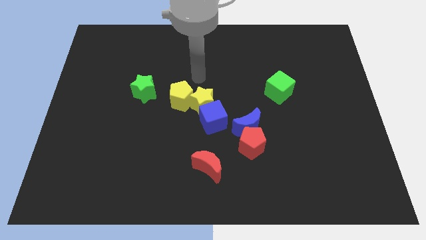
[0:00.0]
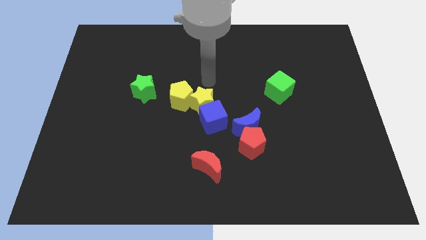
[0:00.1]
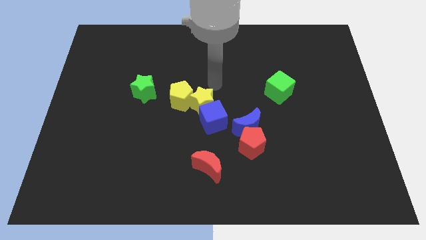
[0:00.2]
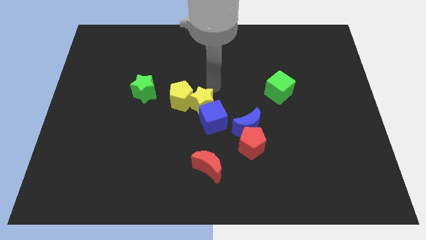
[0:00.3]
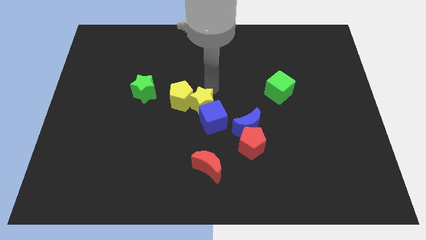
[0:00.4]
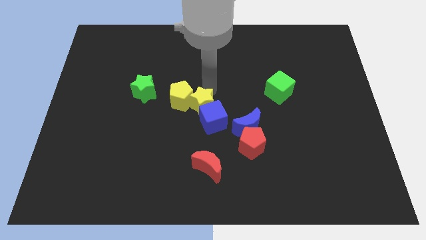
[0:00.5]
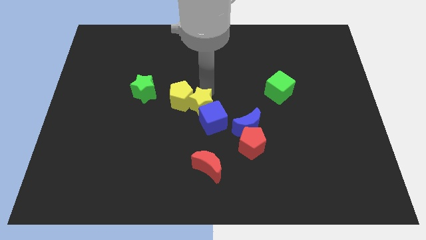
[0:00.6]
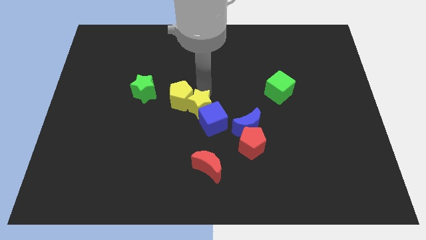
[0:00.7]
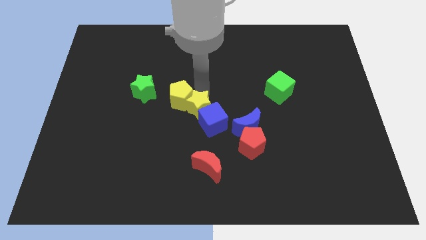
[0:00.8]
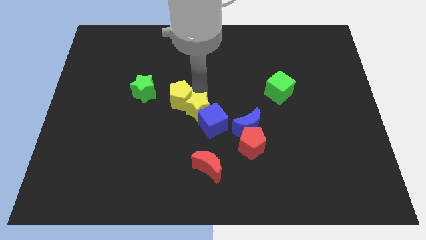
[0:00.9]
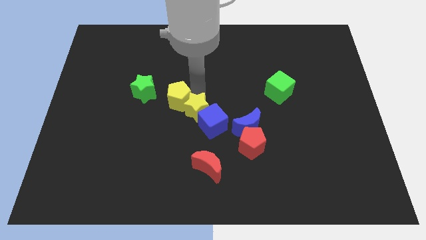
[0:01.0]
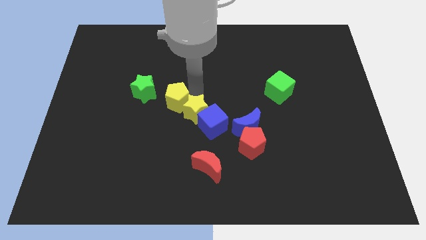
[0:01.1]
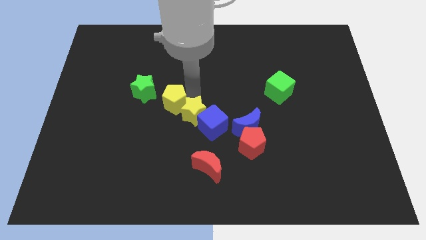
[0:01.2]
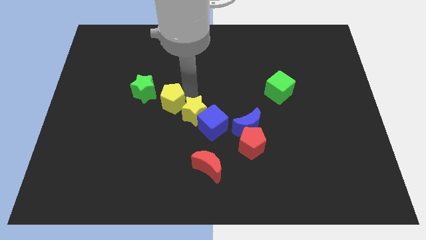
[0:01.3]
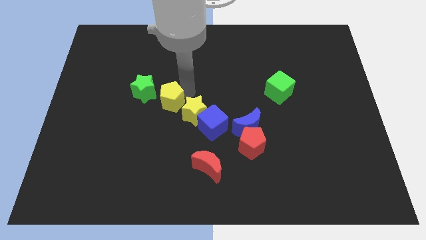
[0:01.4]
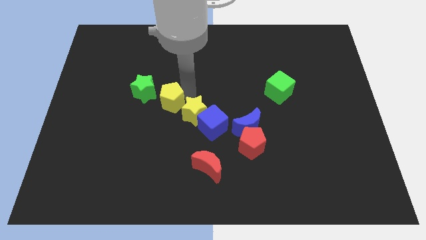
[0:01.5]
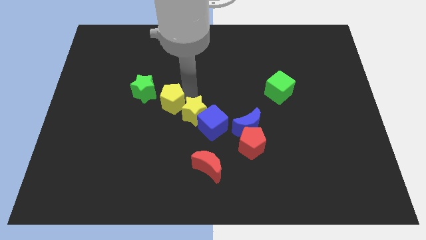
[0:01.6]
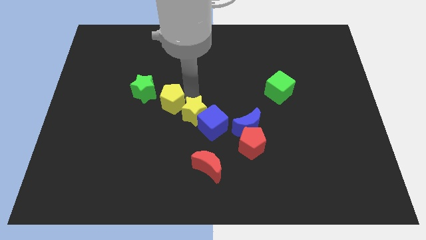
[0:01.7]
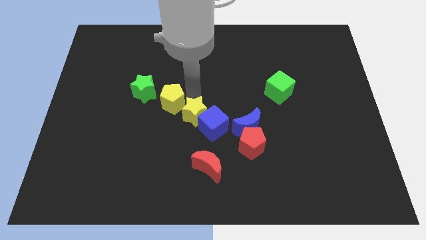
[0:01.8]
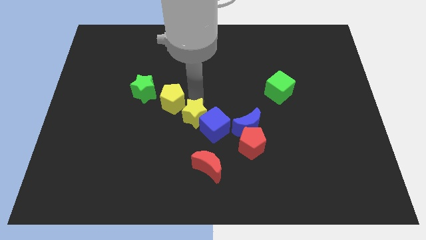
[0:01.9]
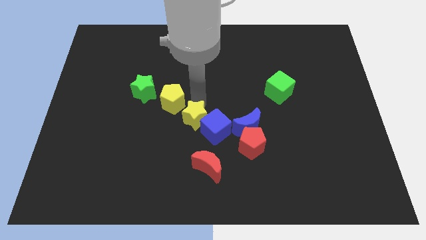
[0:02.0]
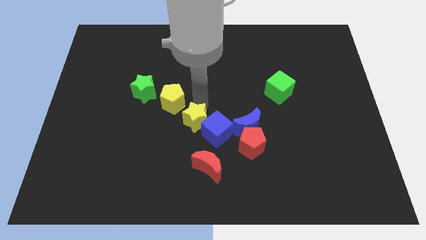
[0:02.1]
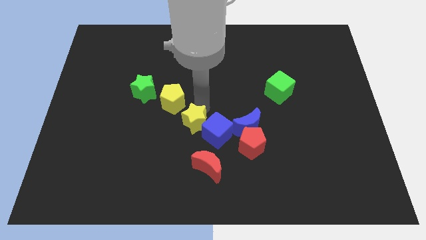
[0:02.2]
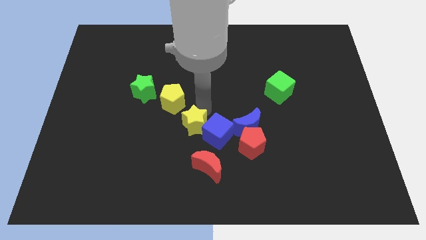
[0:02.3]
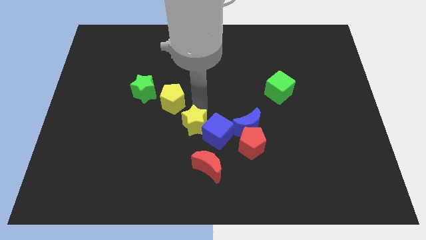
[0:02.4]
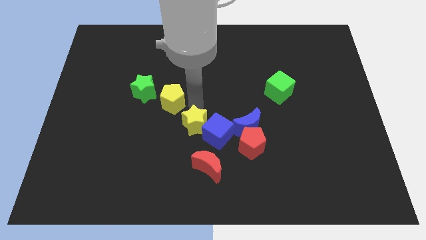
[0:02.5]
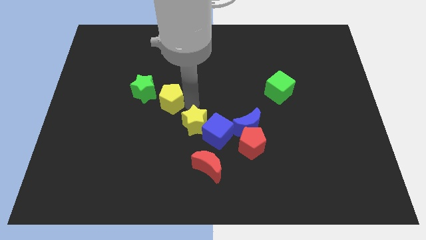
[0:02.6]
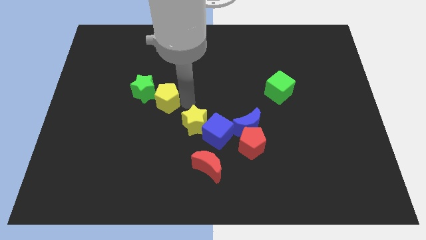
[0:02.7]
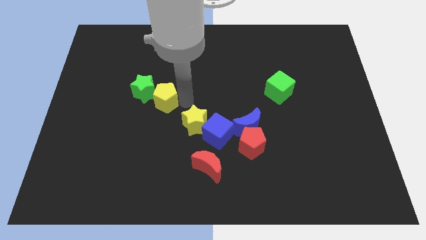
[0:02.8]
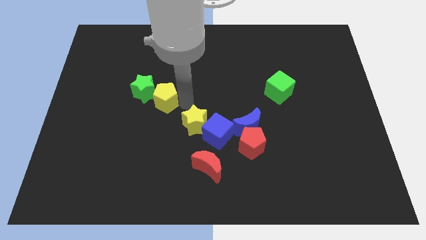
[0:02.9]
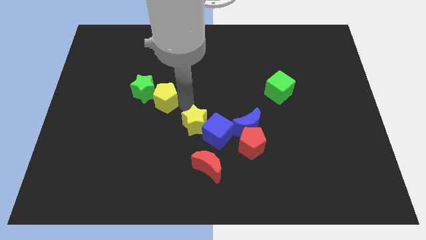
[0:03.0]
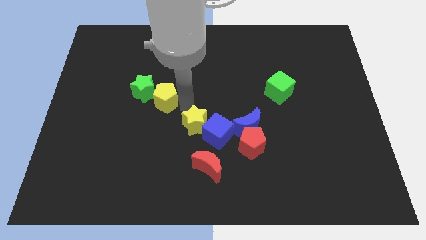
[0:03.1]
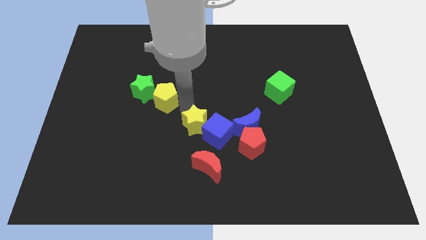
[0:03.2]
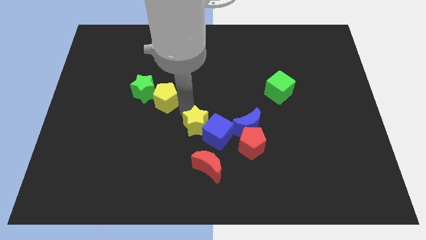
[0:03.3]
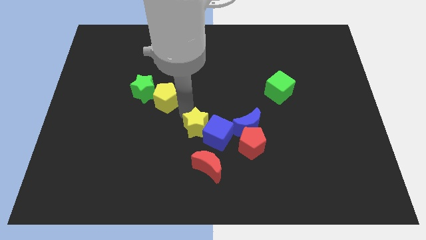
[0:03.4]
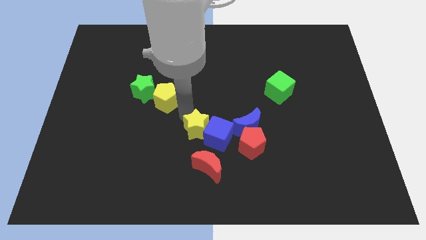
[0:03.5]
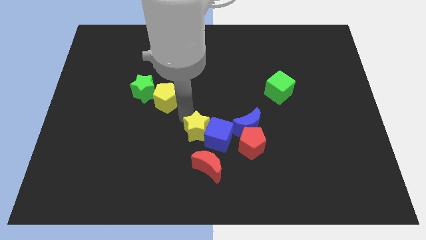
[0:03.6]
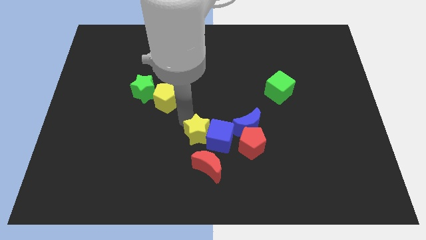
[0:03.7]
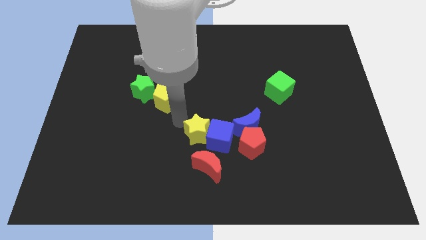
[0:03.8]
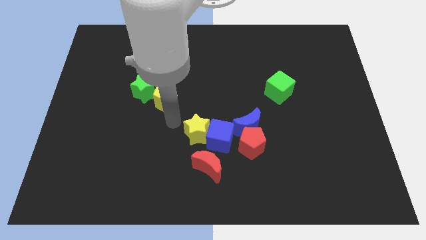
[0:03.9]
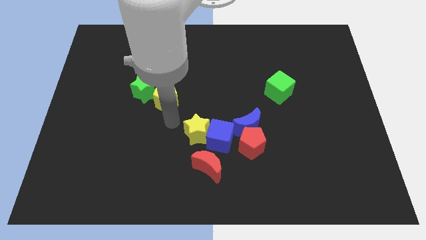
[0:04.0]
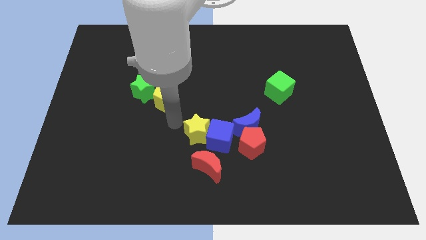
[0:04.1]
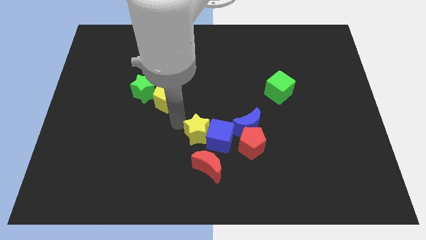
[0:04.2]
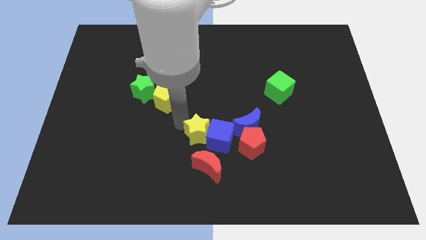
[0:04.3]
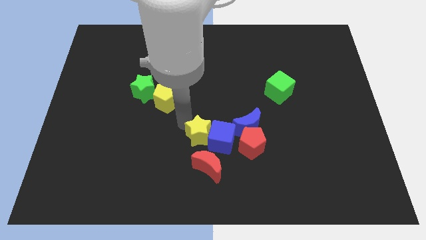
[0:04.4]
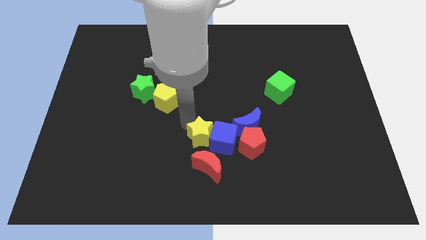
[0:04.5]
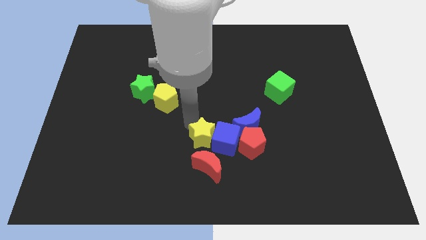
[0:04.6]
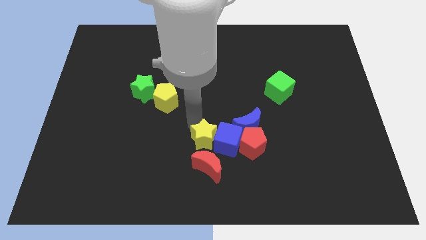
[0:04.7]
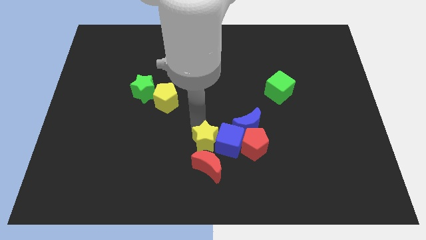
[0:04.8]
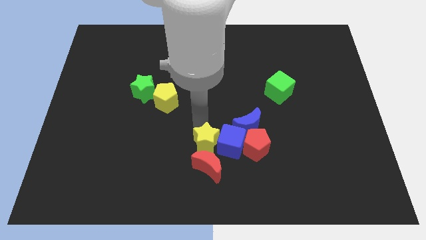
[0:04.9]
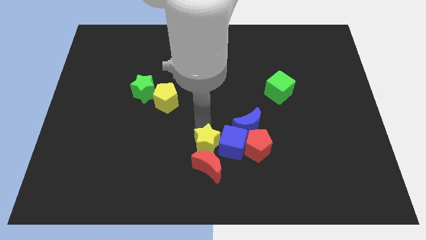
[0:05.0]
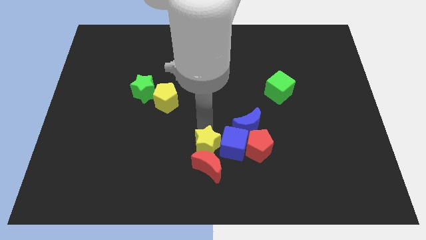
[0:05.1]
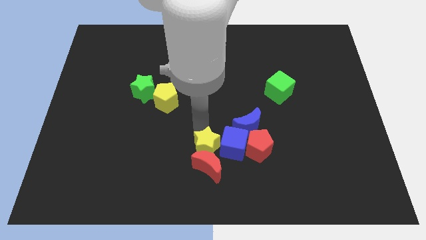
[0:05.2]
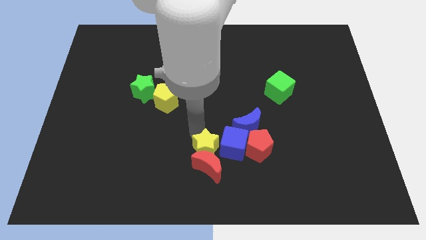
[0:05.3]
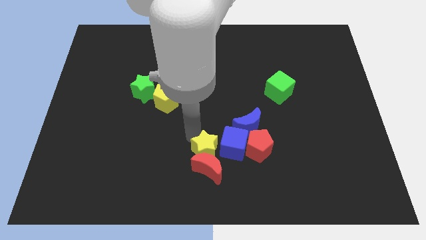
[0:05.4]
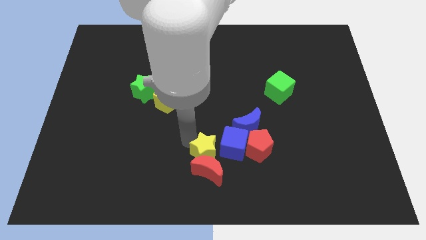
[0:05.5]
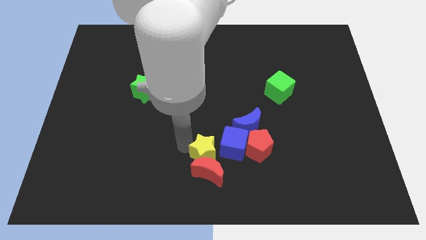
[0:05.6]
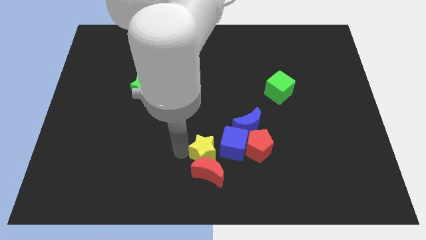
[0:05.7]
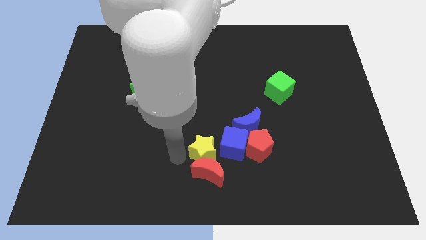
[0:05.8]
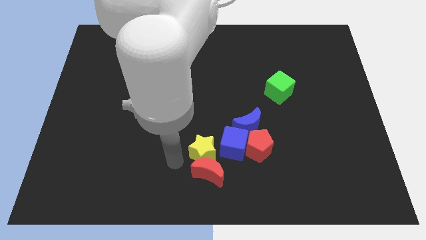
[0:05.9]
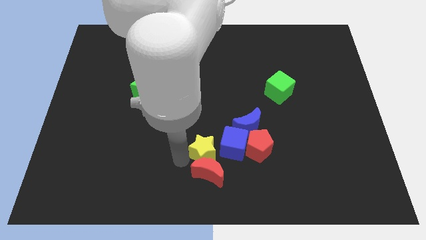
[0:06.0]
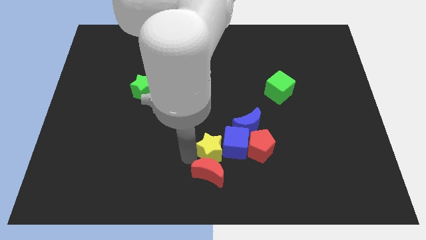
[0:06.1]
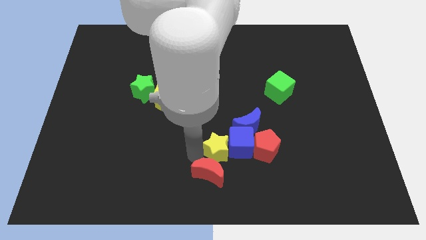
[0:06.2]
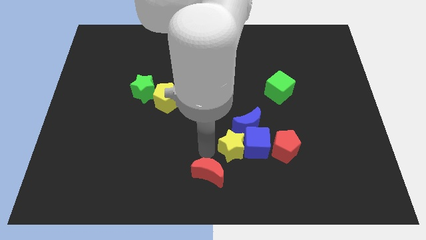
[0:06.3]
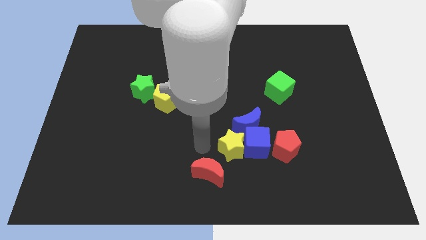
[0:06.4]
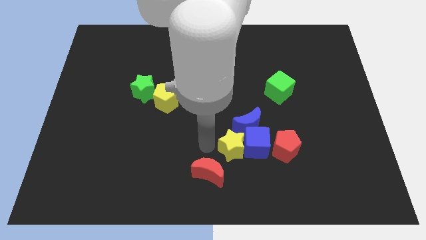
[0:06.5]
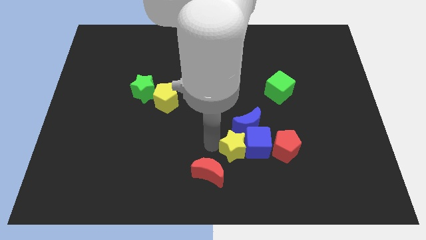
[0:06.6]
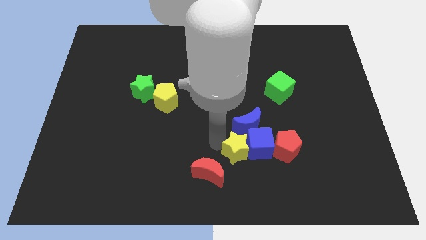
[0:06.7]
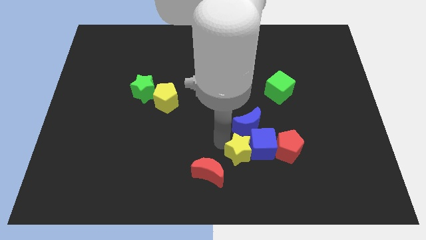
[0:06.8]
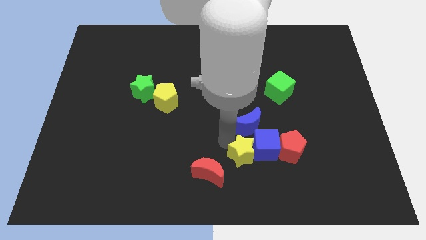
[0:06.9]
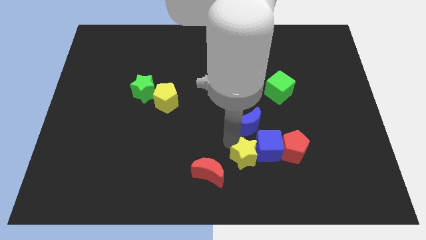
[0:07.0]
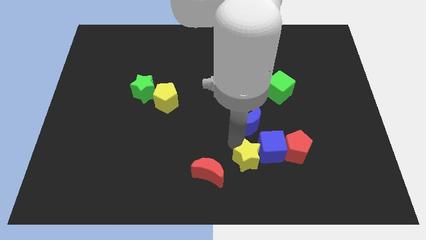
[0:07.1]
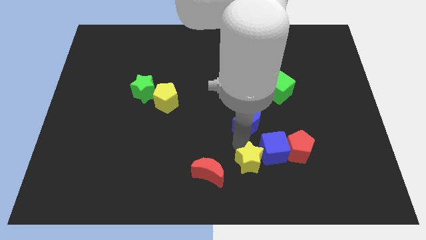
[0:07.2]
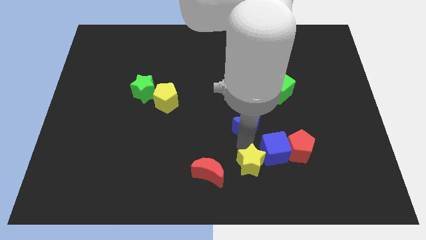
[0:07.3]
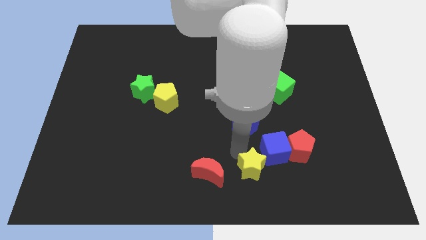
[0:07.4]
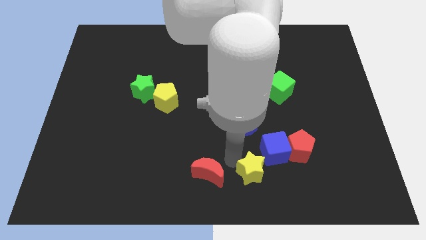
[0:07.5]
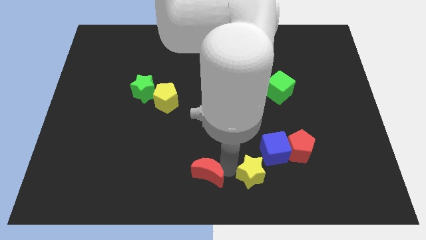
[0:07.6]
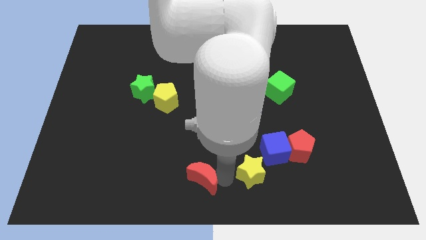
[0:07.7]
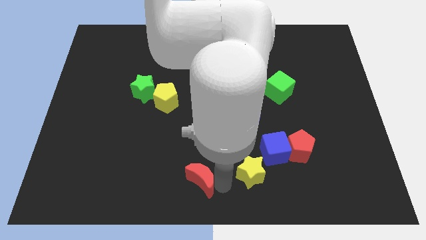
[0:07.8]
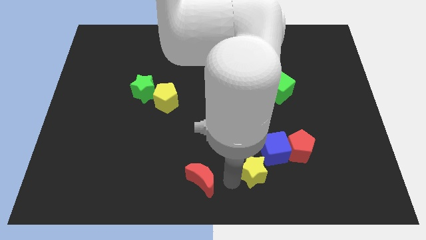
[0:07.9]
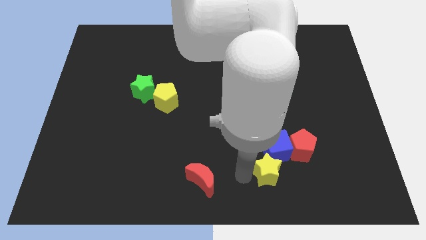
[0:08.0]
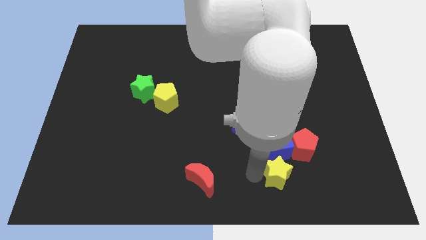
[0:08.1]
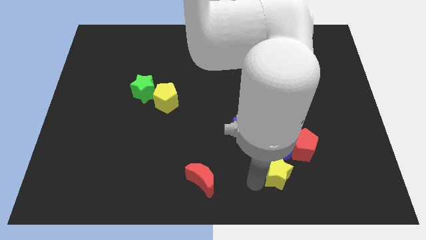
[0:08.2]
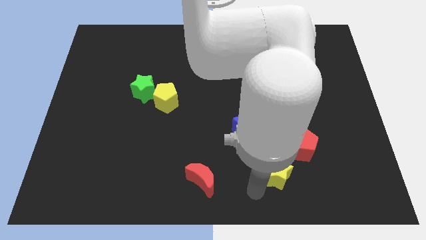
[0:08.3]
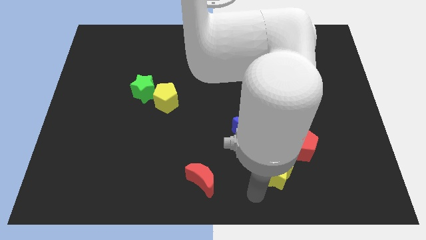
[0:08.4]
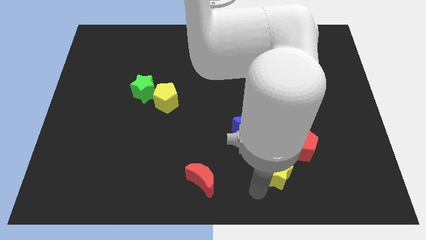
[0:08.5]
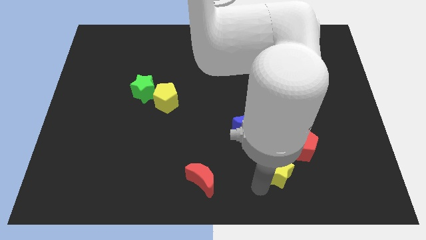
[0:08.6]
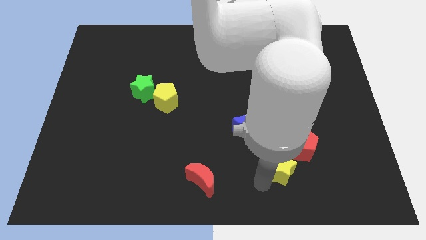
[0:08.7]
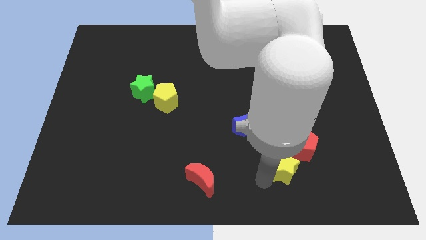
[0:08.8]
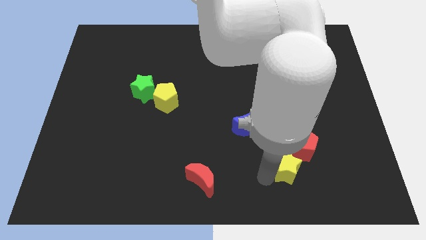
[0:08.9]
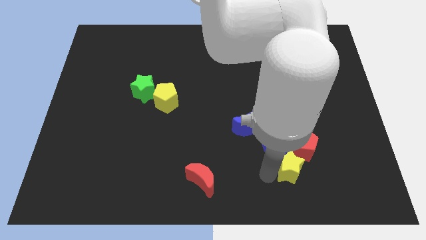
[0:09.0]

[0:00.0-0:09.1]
slide the yellow star close to the red pentagon
